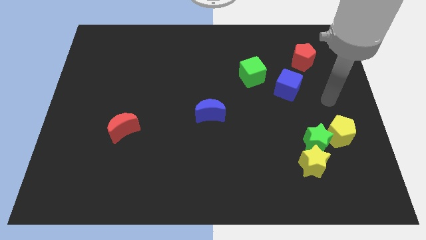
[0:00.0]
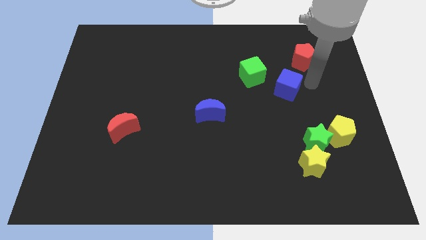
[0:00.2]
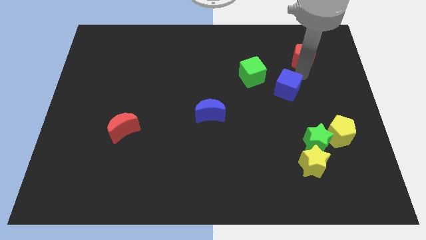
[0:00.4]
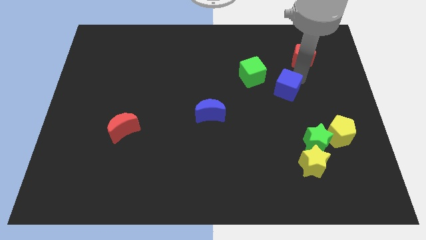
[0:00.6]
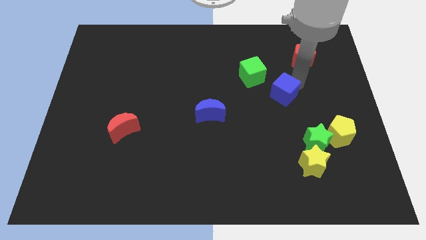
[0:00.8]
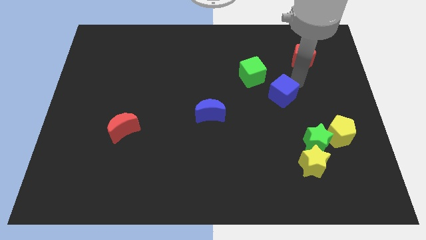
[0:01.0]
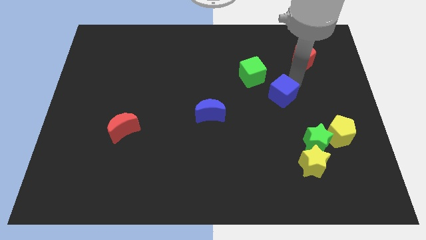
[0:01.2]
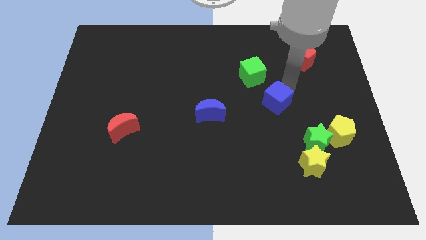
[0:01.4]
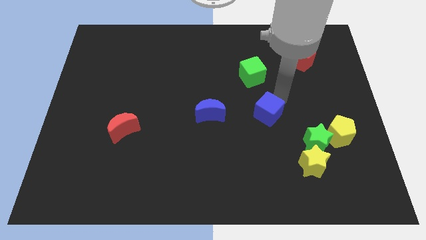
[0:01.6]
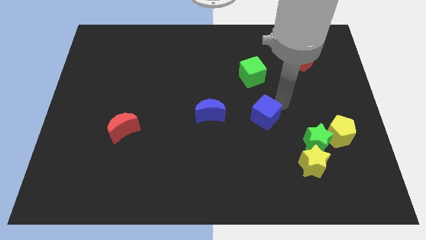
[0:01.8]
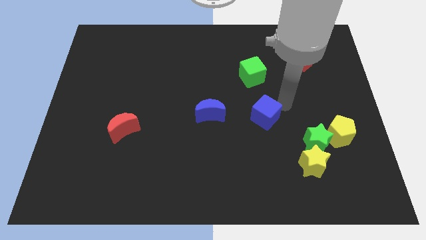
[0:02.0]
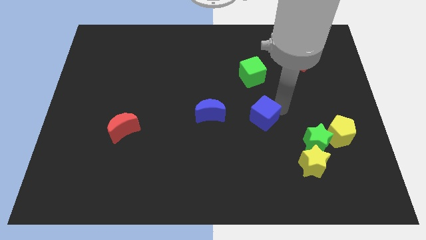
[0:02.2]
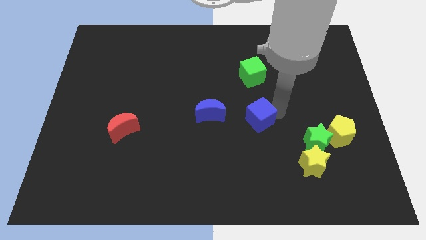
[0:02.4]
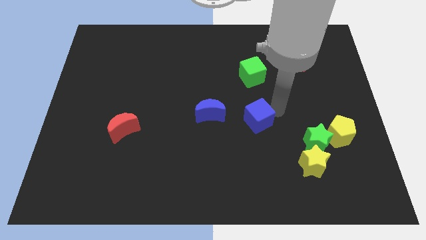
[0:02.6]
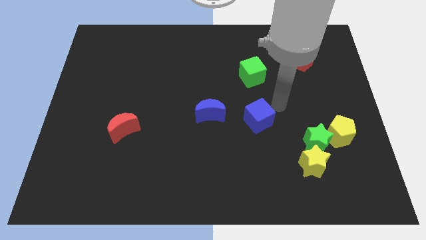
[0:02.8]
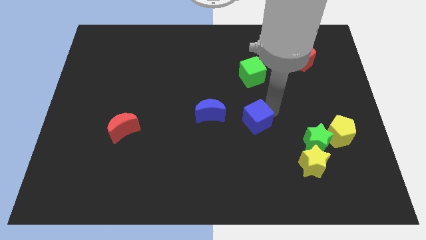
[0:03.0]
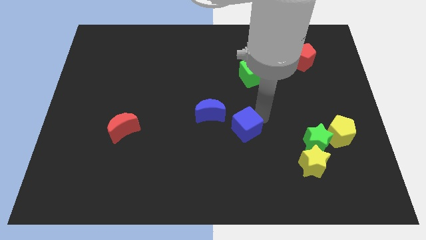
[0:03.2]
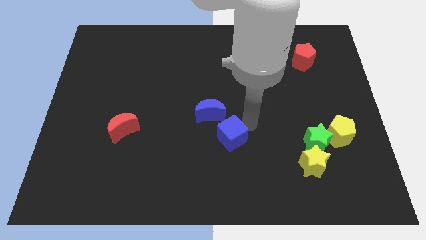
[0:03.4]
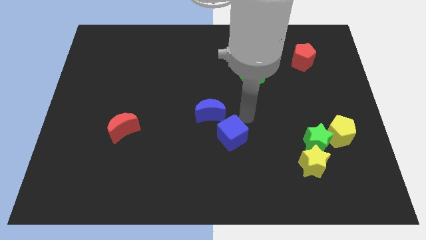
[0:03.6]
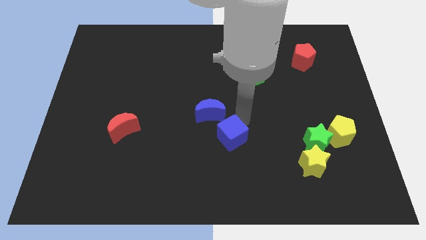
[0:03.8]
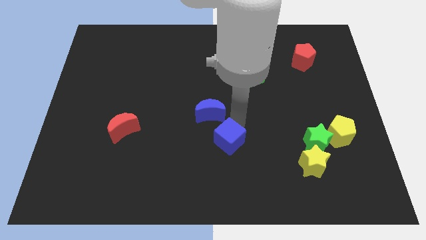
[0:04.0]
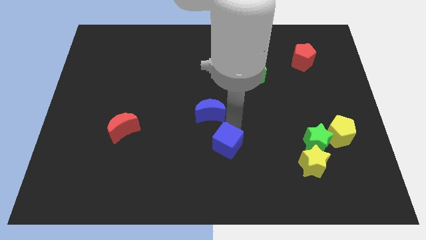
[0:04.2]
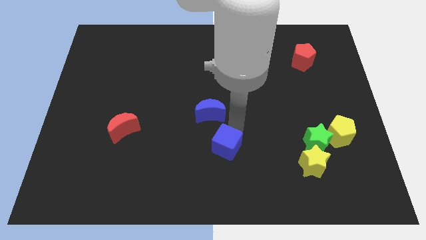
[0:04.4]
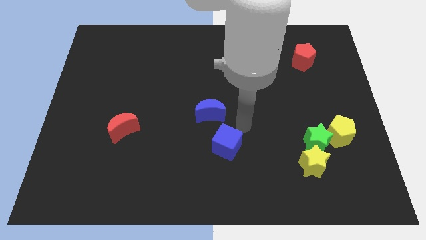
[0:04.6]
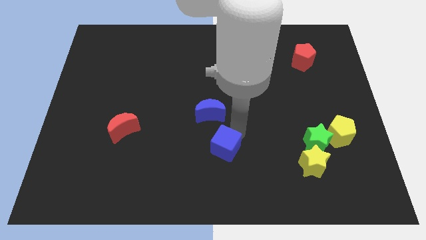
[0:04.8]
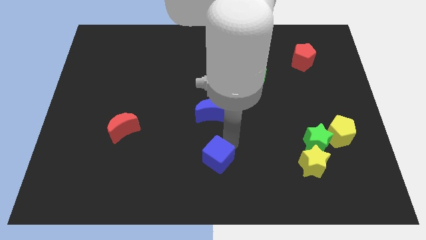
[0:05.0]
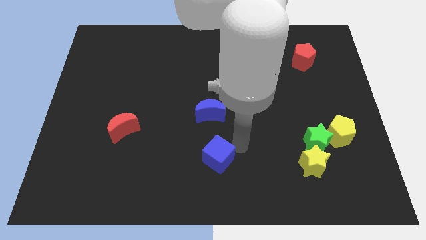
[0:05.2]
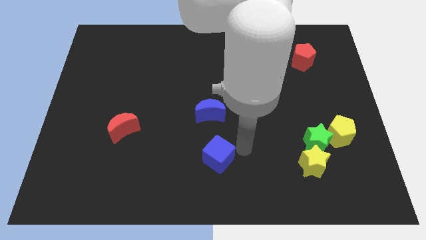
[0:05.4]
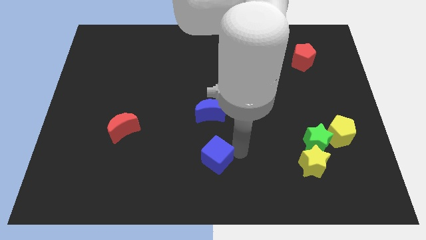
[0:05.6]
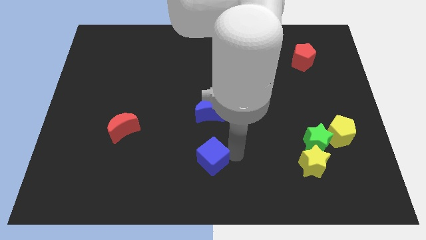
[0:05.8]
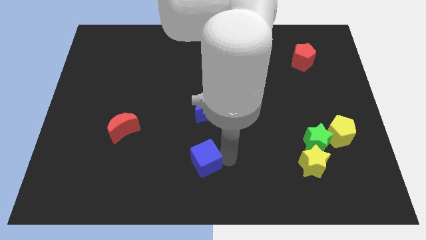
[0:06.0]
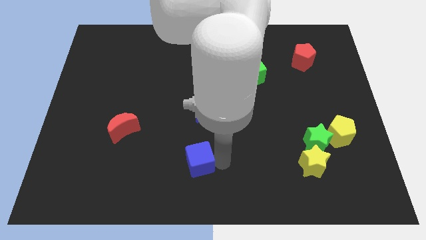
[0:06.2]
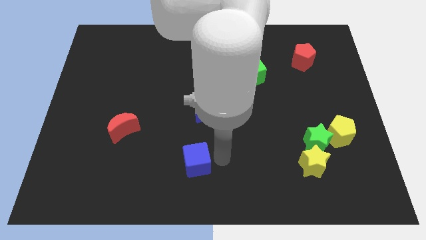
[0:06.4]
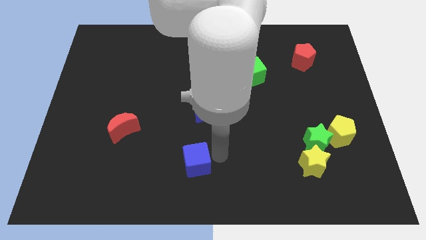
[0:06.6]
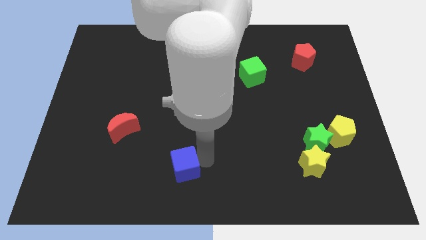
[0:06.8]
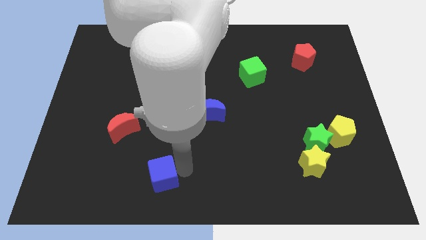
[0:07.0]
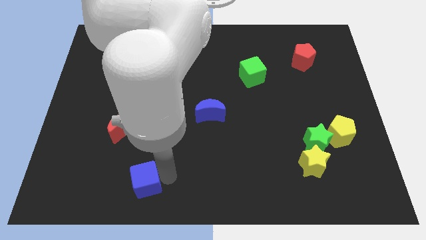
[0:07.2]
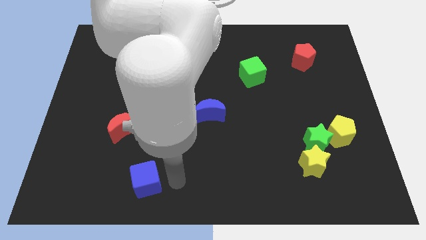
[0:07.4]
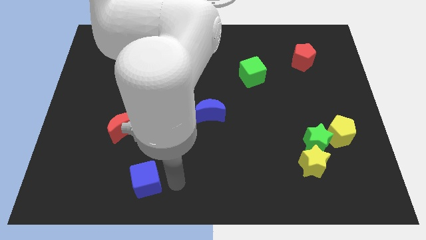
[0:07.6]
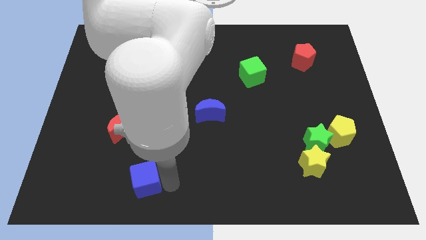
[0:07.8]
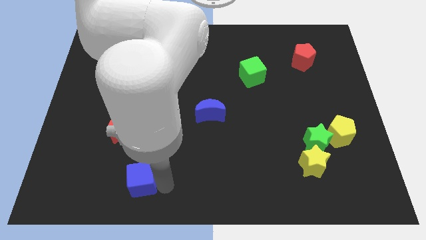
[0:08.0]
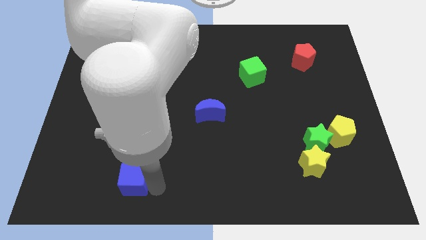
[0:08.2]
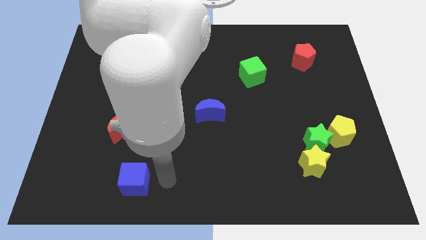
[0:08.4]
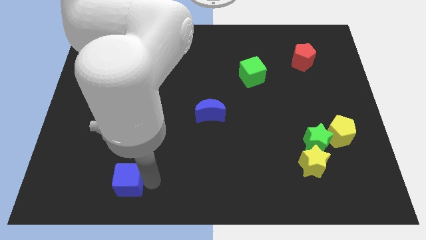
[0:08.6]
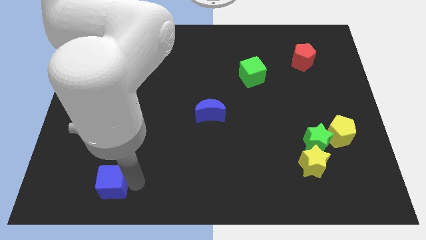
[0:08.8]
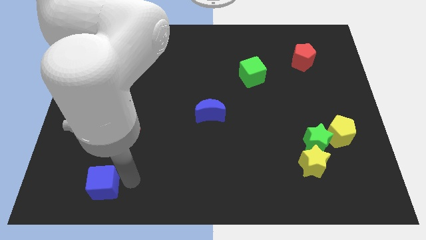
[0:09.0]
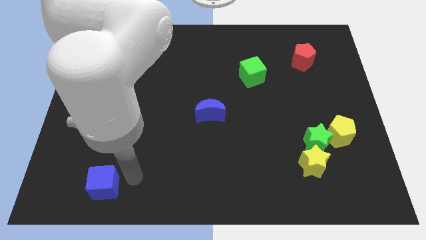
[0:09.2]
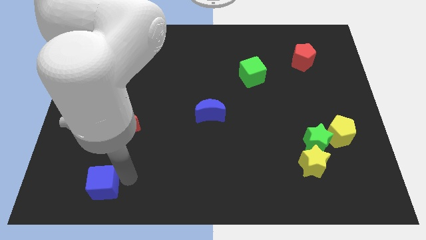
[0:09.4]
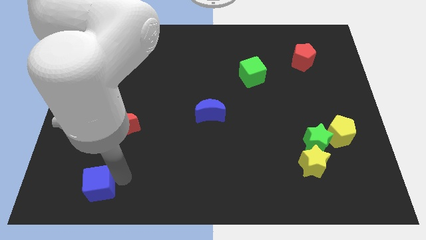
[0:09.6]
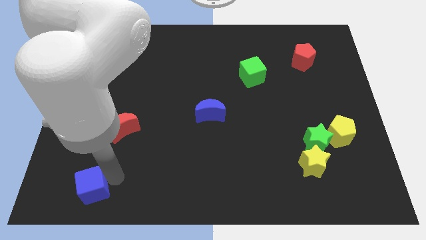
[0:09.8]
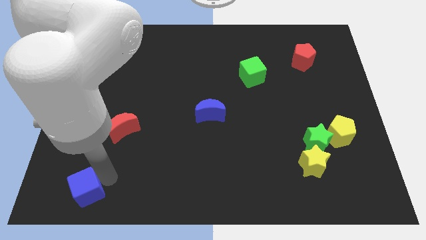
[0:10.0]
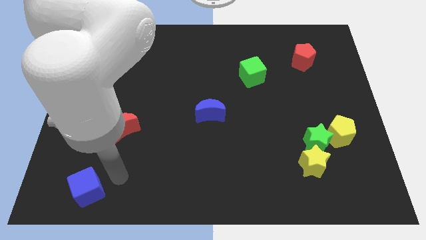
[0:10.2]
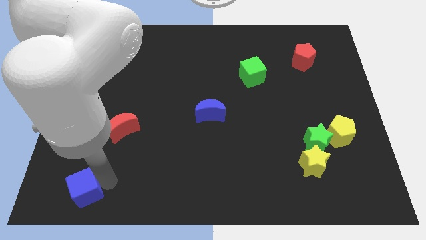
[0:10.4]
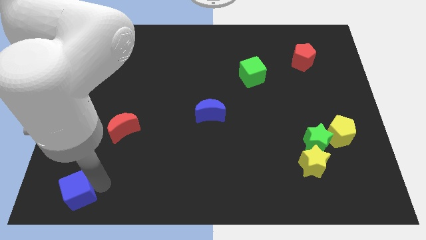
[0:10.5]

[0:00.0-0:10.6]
move the blue cube to the lower left corner

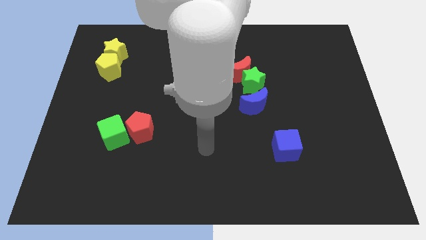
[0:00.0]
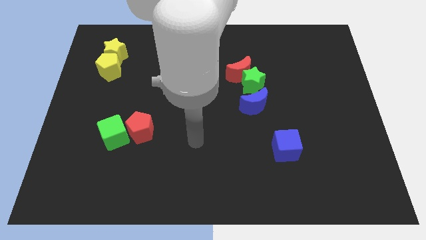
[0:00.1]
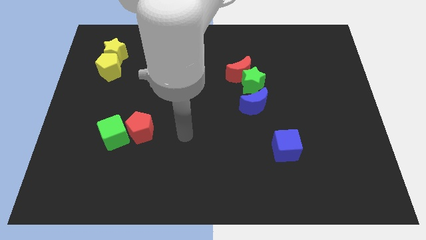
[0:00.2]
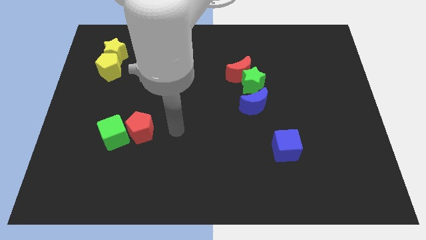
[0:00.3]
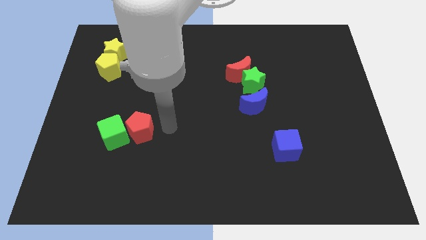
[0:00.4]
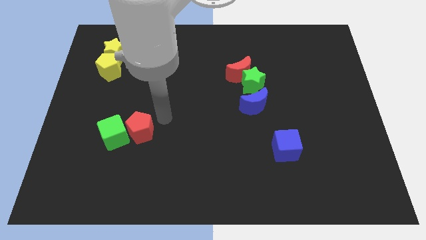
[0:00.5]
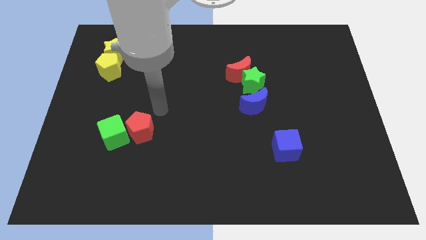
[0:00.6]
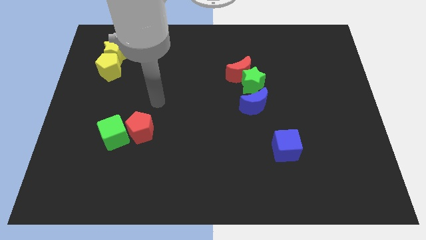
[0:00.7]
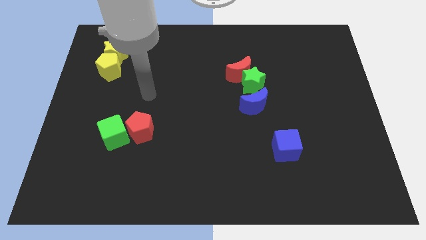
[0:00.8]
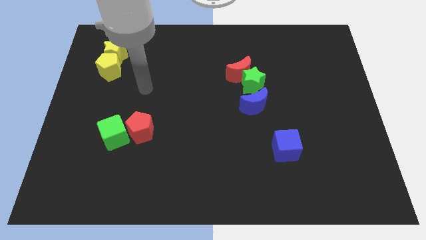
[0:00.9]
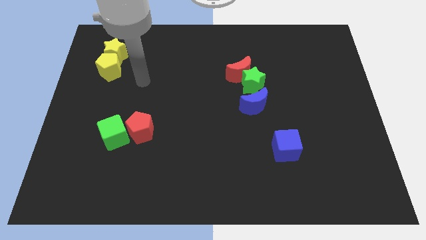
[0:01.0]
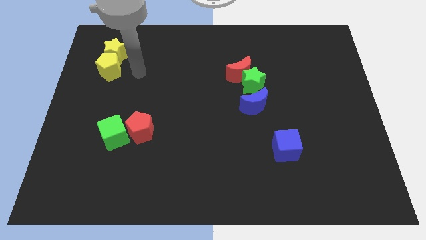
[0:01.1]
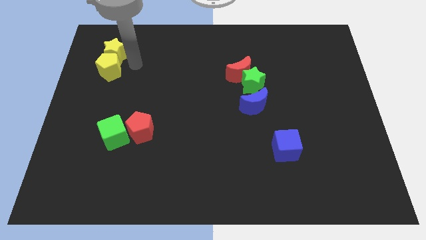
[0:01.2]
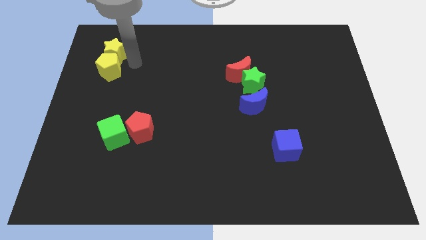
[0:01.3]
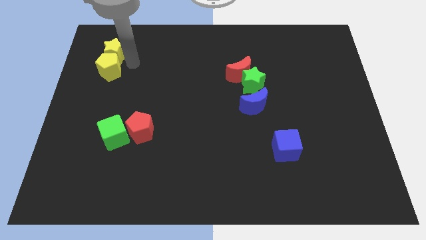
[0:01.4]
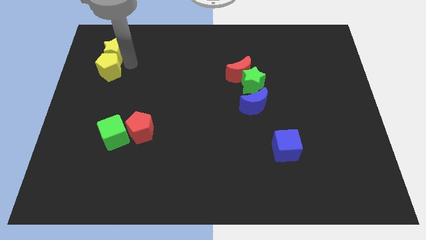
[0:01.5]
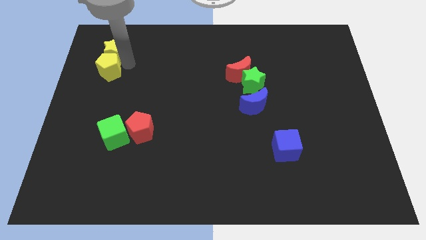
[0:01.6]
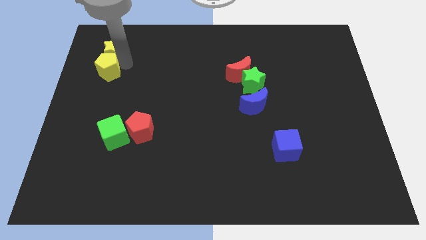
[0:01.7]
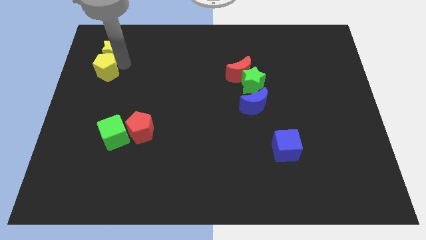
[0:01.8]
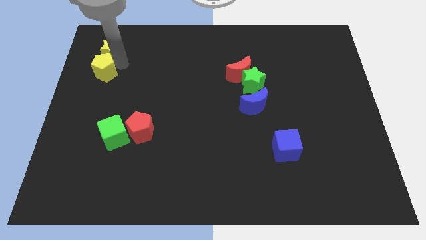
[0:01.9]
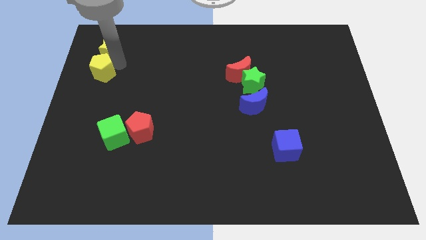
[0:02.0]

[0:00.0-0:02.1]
push the yellow pentagon to the center left
